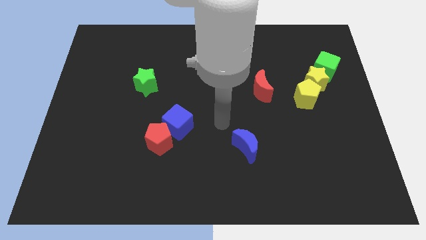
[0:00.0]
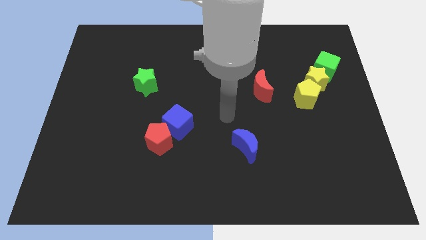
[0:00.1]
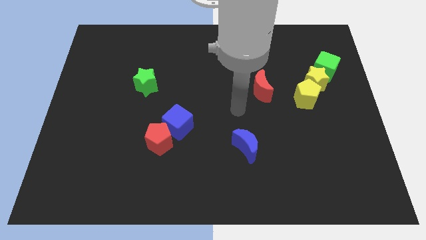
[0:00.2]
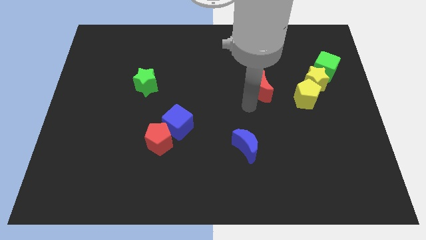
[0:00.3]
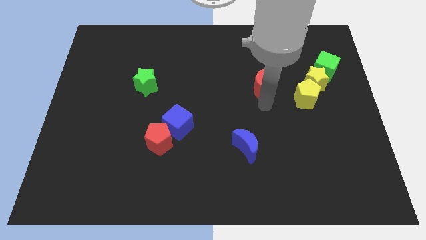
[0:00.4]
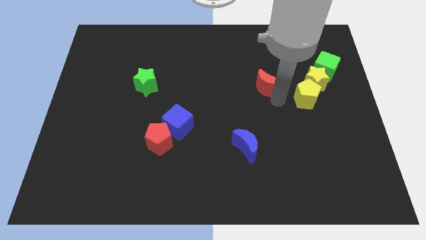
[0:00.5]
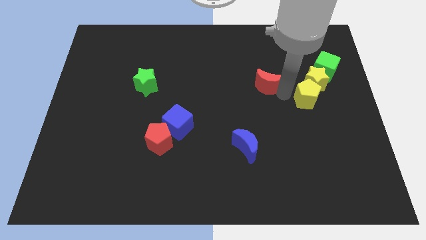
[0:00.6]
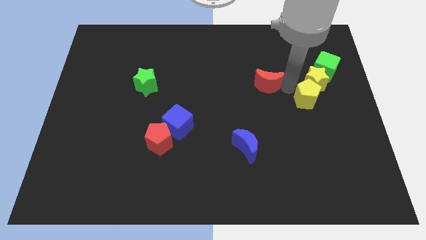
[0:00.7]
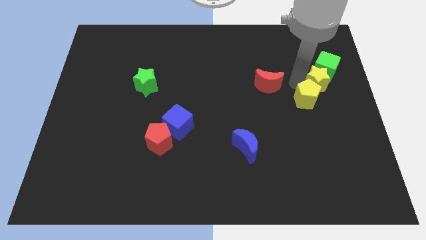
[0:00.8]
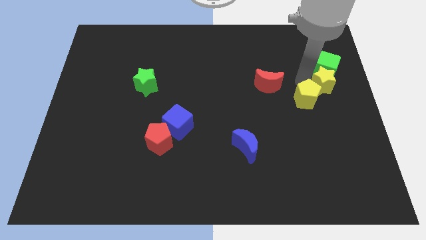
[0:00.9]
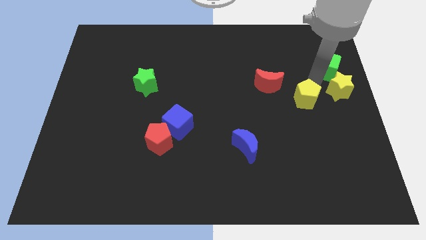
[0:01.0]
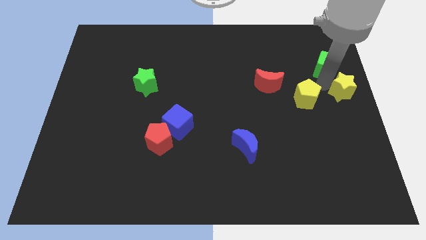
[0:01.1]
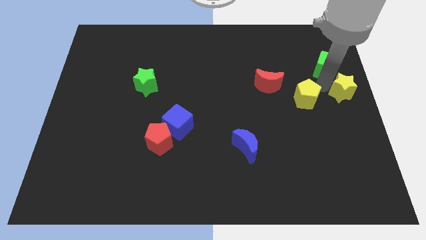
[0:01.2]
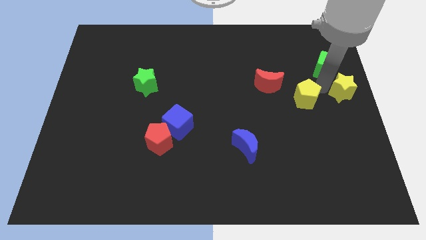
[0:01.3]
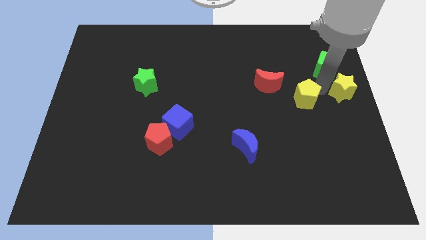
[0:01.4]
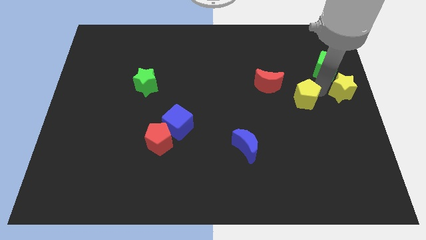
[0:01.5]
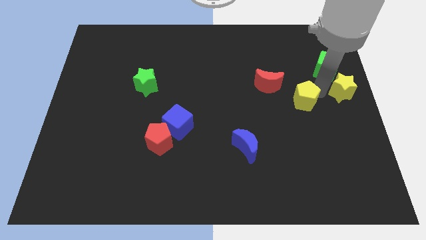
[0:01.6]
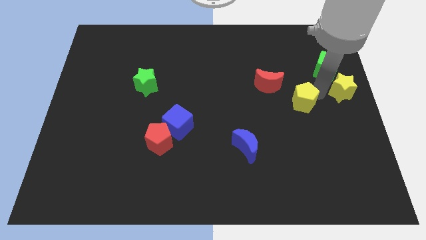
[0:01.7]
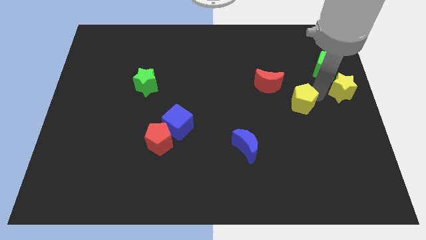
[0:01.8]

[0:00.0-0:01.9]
move the yellow pentagon away from the yellow star

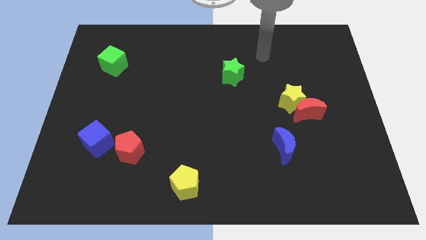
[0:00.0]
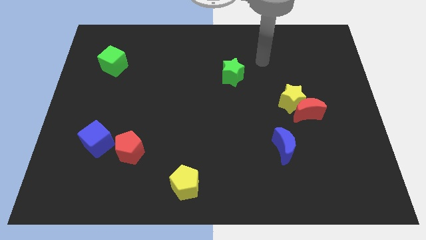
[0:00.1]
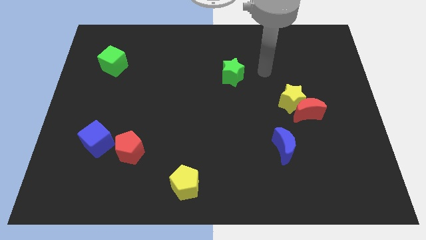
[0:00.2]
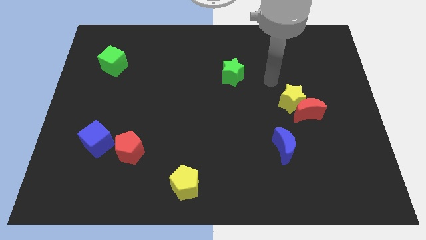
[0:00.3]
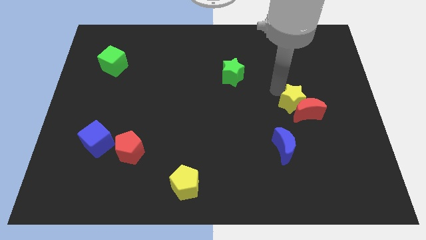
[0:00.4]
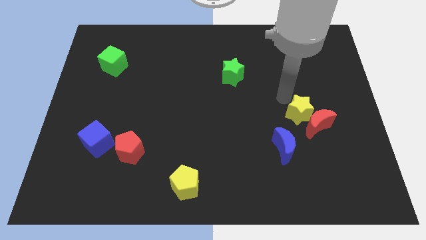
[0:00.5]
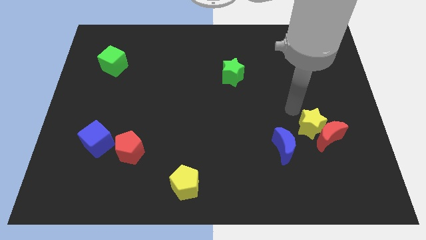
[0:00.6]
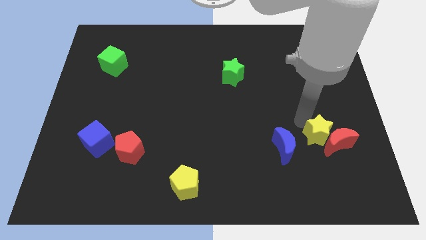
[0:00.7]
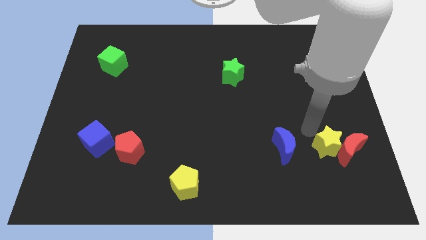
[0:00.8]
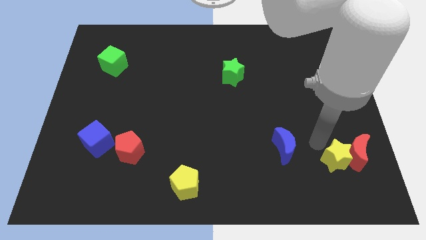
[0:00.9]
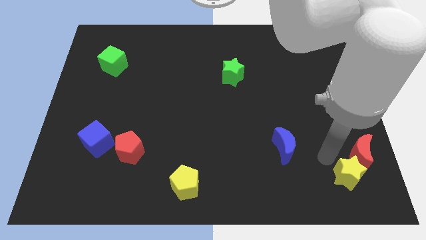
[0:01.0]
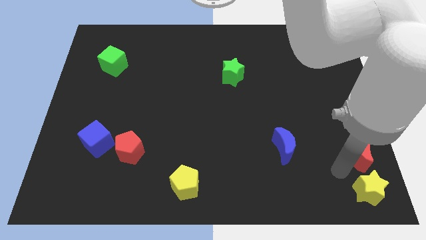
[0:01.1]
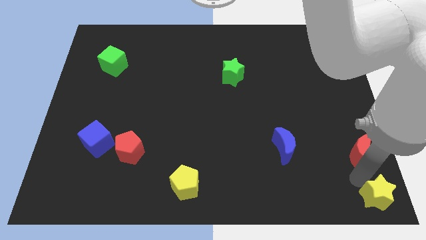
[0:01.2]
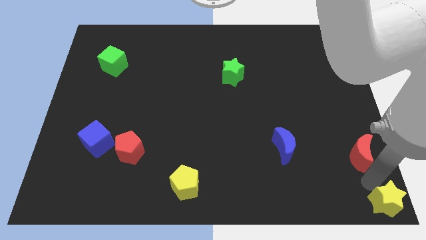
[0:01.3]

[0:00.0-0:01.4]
move the red moon away from the yellow star

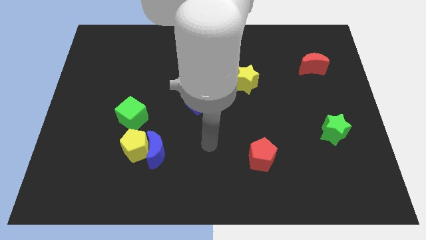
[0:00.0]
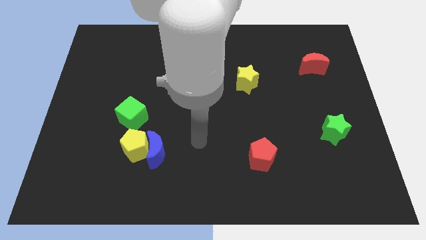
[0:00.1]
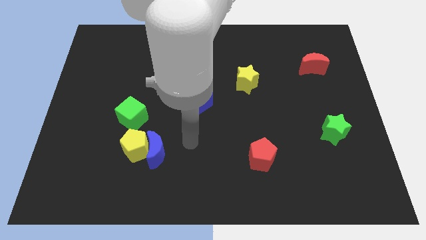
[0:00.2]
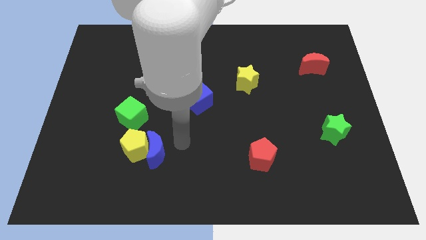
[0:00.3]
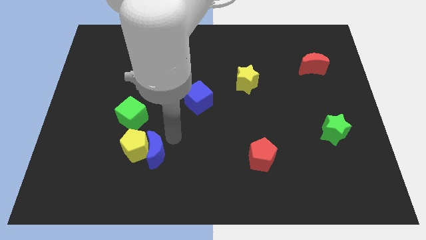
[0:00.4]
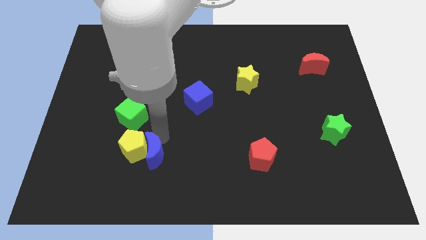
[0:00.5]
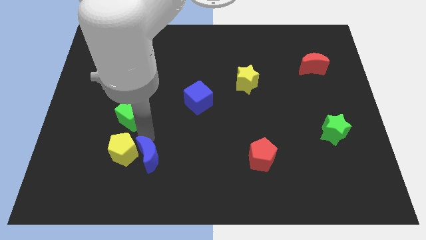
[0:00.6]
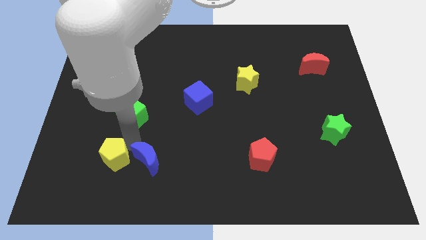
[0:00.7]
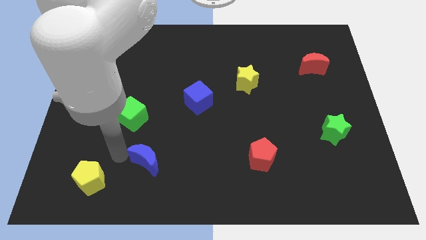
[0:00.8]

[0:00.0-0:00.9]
move the blue moon away from the yellow pentagon

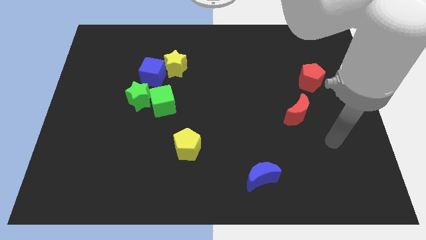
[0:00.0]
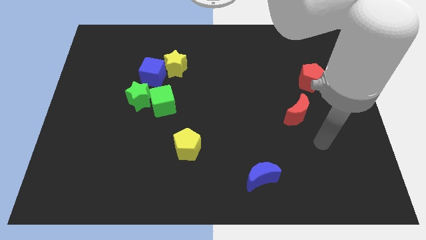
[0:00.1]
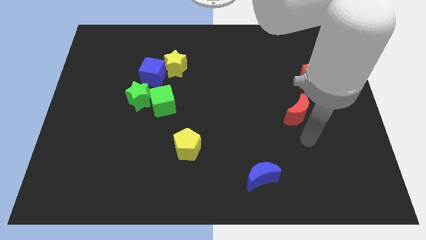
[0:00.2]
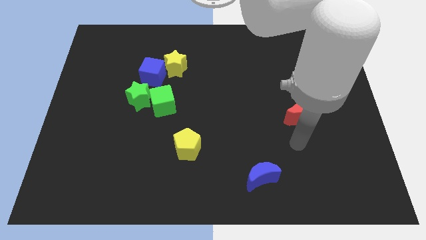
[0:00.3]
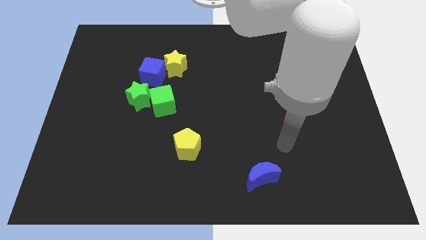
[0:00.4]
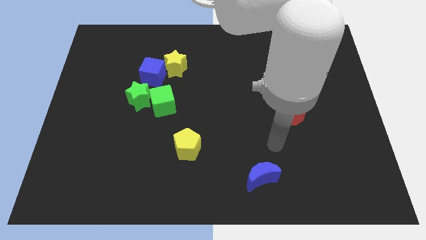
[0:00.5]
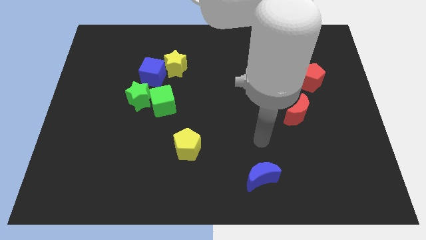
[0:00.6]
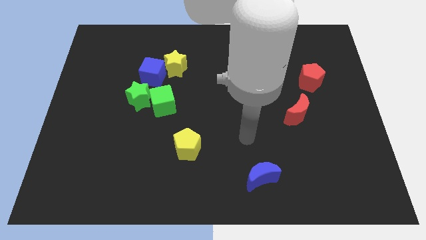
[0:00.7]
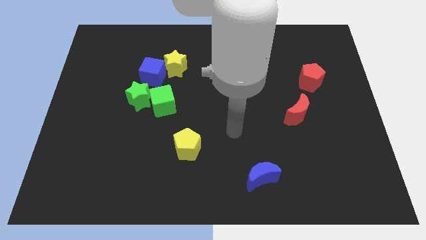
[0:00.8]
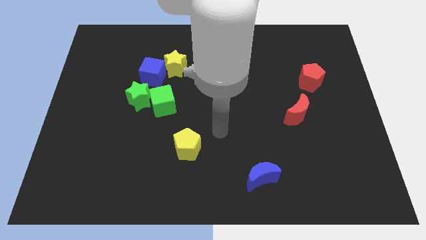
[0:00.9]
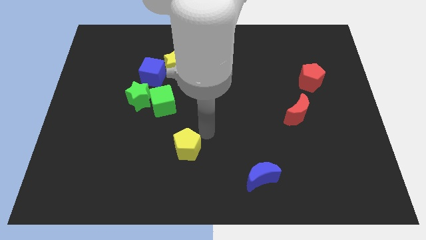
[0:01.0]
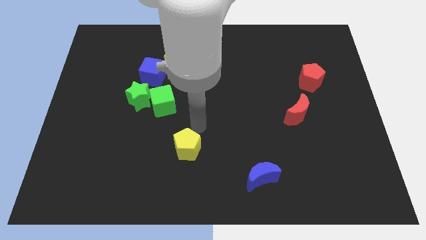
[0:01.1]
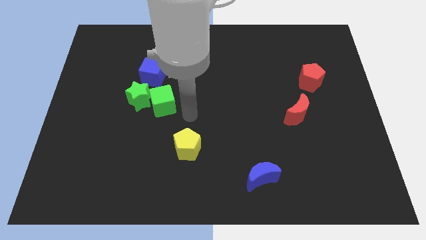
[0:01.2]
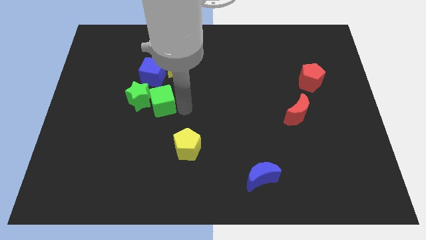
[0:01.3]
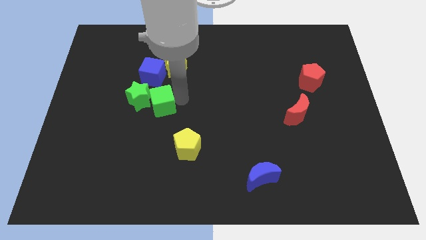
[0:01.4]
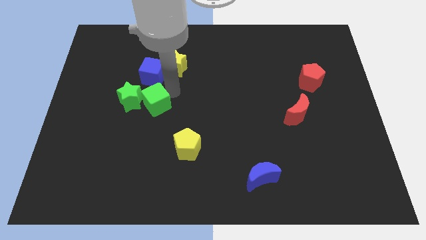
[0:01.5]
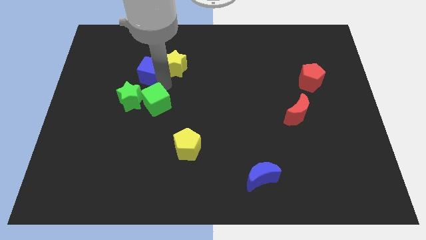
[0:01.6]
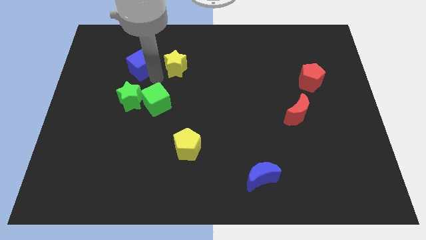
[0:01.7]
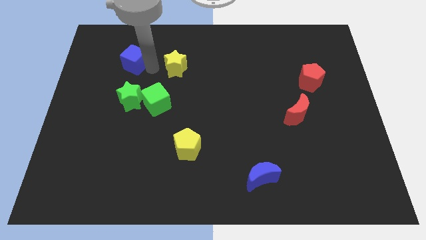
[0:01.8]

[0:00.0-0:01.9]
pull the yellow star apart from the blue cube

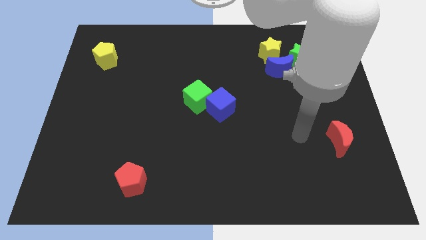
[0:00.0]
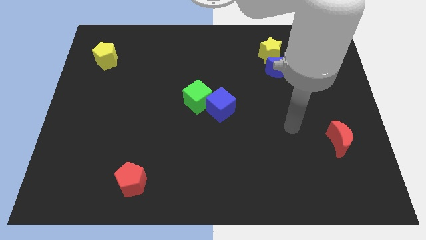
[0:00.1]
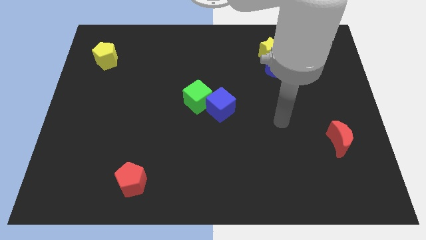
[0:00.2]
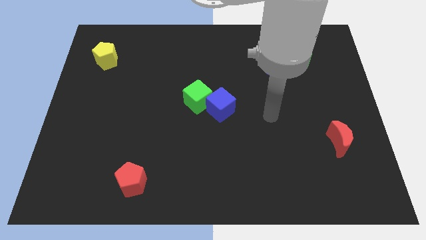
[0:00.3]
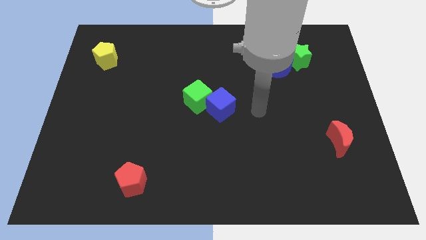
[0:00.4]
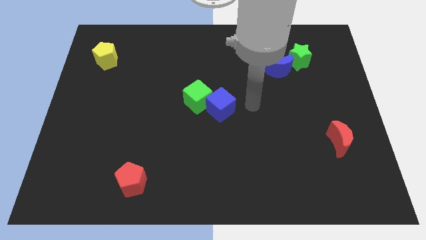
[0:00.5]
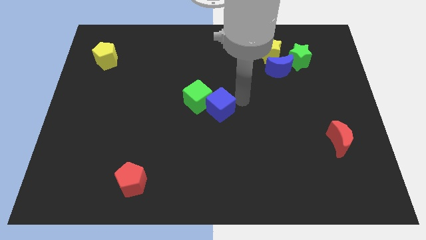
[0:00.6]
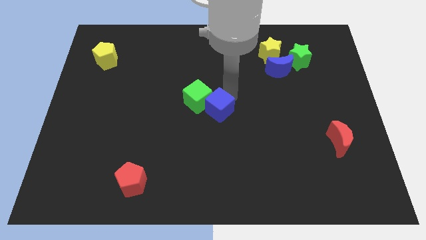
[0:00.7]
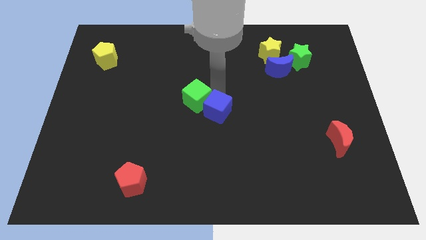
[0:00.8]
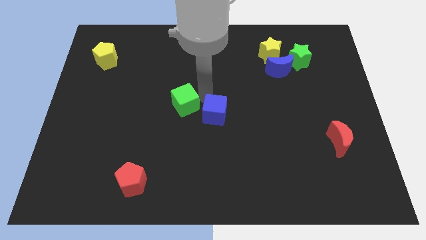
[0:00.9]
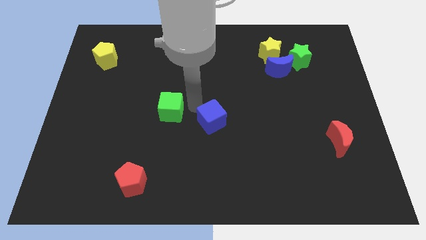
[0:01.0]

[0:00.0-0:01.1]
separate the blue cube from the green cube

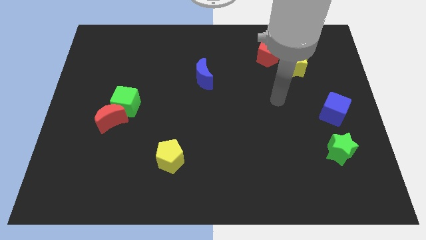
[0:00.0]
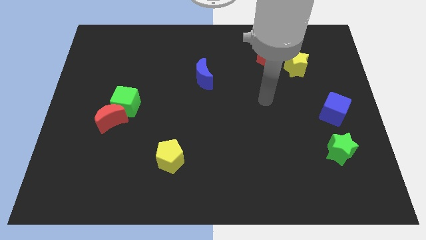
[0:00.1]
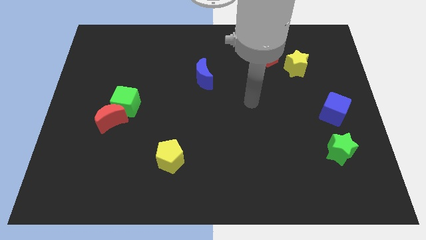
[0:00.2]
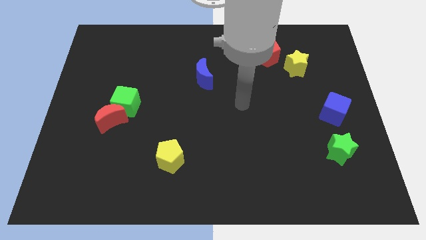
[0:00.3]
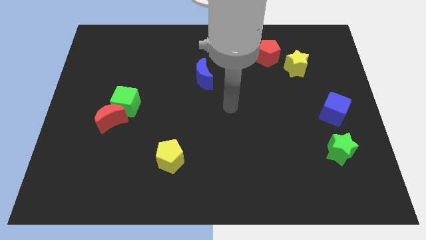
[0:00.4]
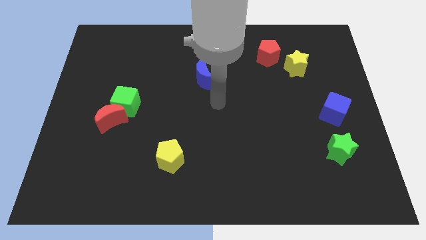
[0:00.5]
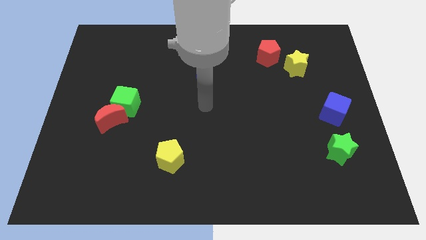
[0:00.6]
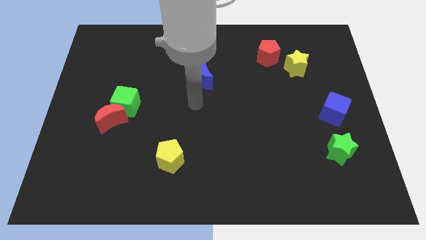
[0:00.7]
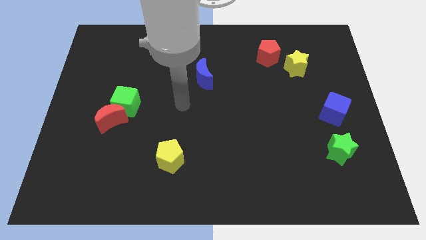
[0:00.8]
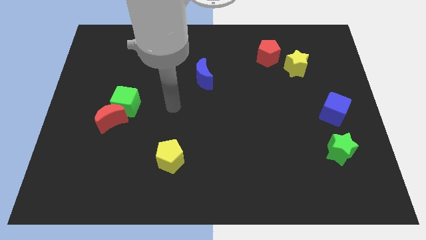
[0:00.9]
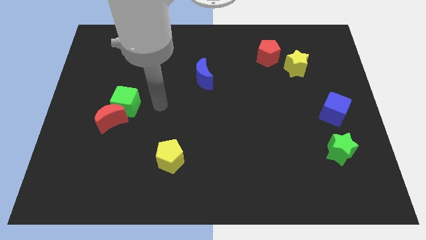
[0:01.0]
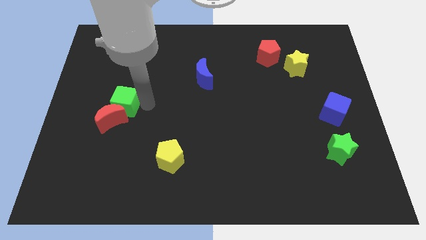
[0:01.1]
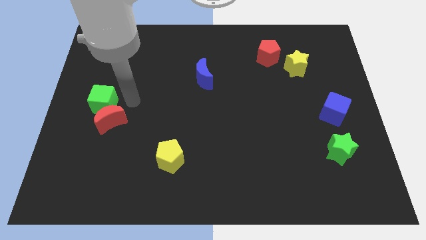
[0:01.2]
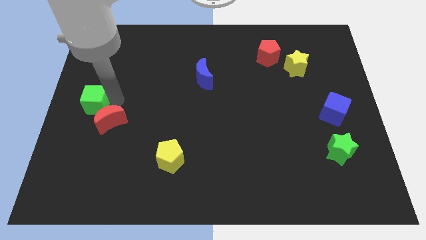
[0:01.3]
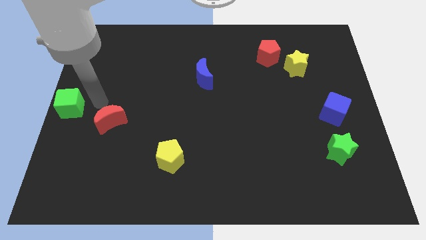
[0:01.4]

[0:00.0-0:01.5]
pull the red moon apart from the green cube

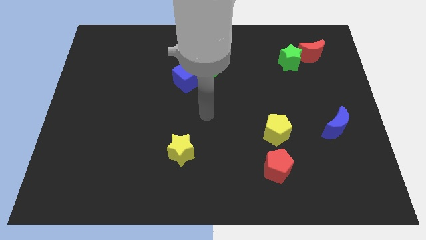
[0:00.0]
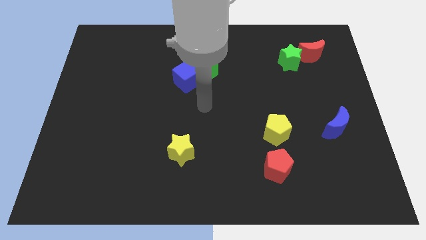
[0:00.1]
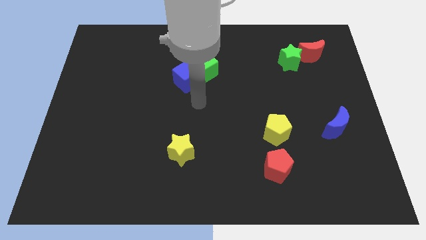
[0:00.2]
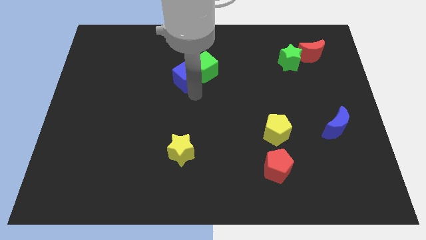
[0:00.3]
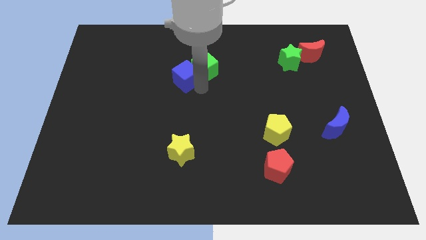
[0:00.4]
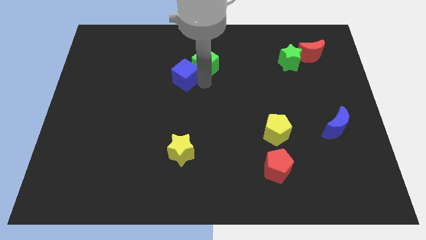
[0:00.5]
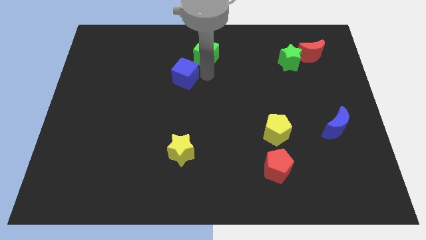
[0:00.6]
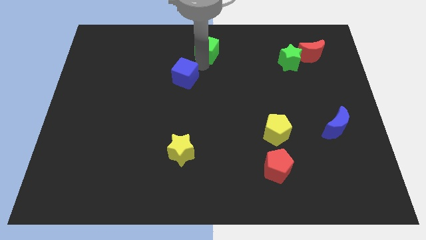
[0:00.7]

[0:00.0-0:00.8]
pull the blue cube apart from the green cube
